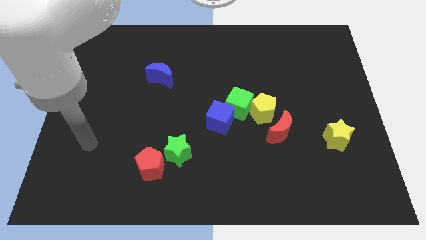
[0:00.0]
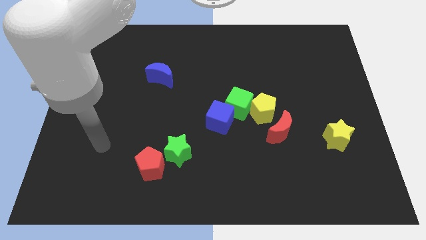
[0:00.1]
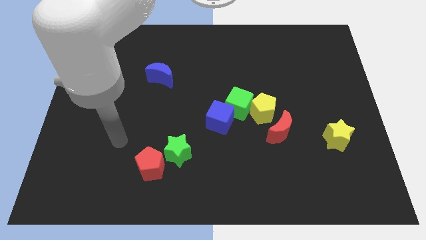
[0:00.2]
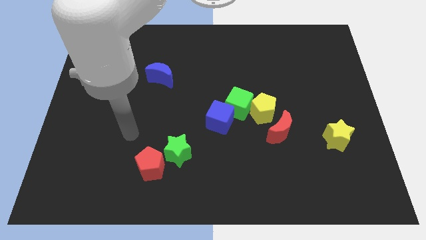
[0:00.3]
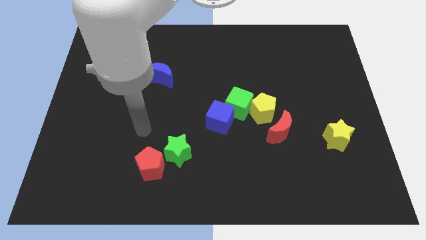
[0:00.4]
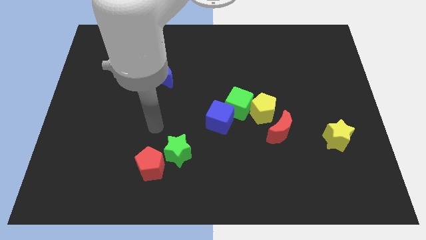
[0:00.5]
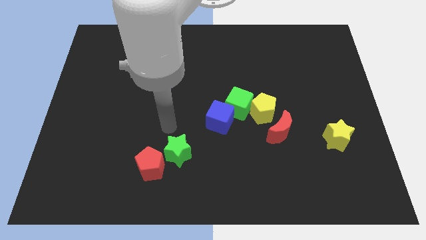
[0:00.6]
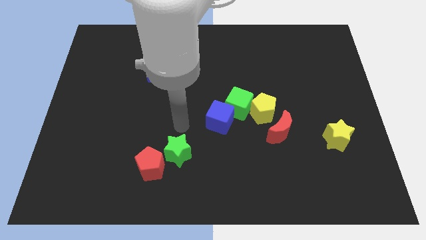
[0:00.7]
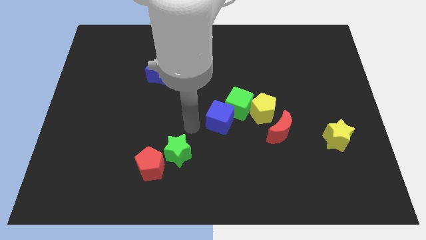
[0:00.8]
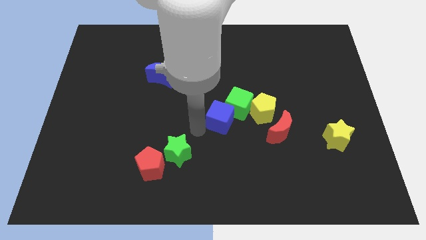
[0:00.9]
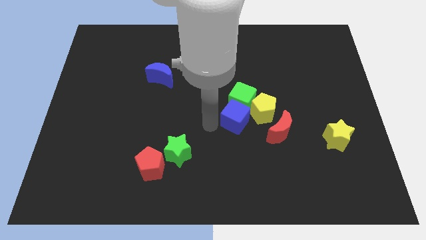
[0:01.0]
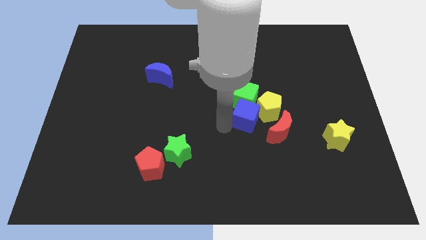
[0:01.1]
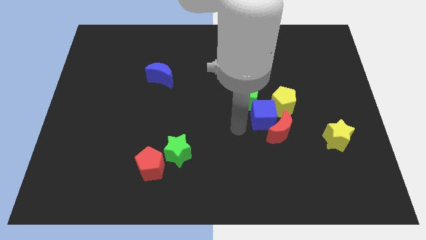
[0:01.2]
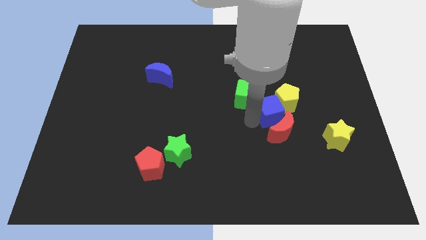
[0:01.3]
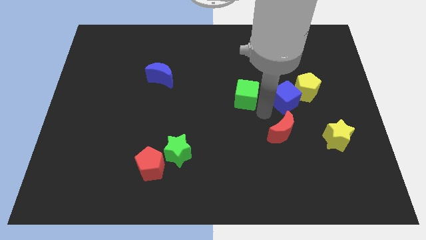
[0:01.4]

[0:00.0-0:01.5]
separate the green cube from the yellow pentagon and blue cube

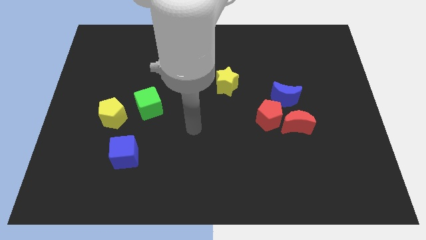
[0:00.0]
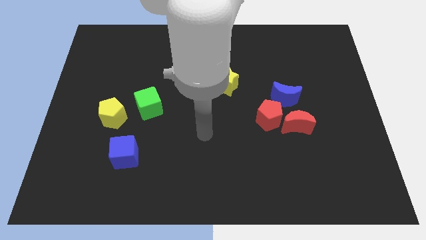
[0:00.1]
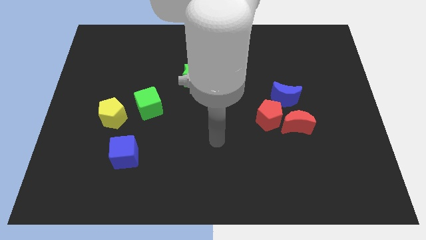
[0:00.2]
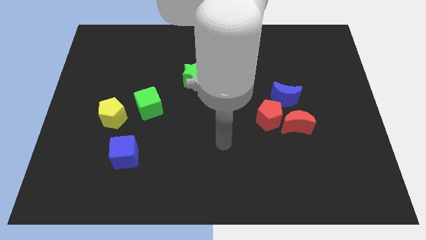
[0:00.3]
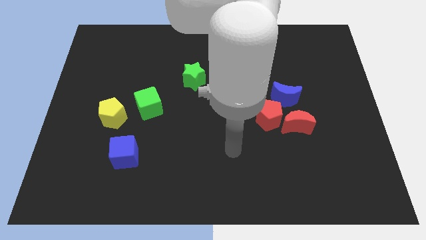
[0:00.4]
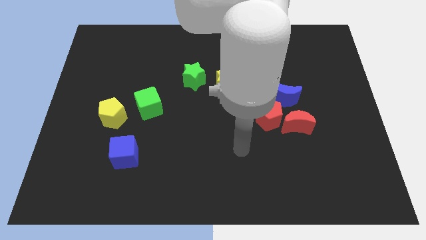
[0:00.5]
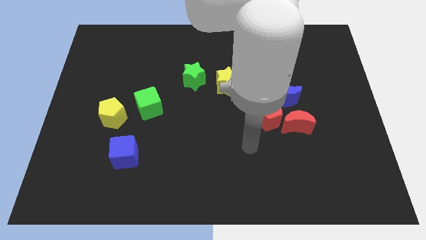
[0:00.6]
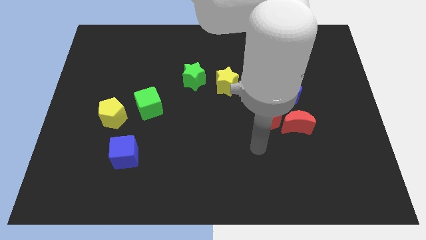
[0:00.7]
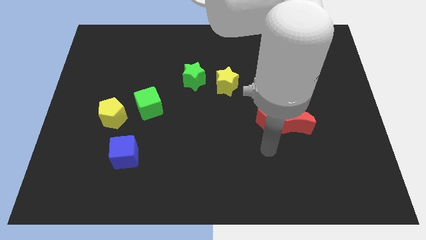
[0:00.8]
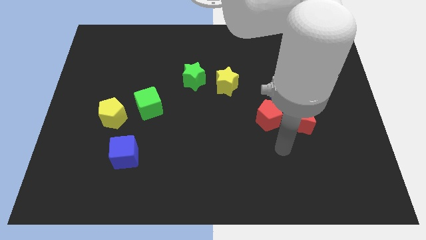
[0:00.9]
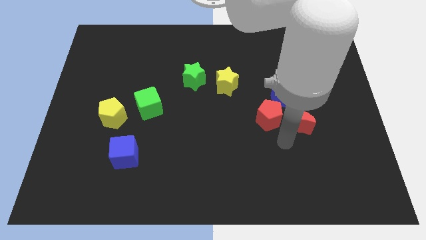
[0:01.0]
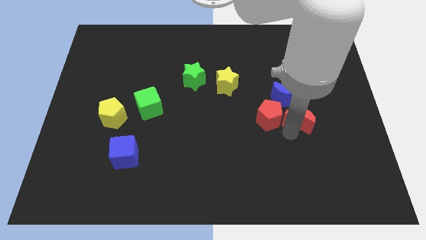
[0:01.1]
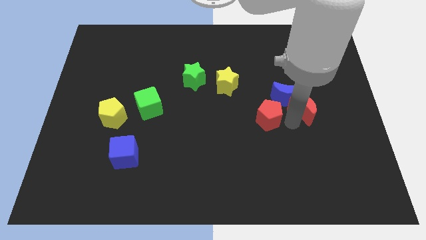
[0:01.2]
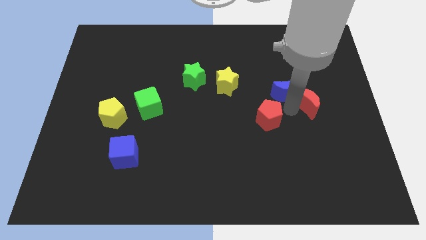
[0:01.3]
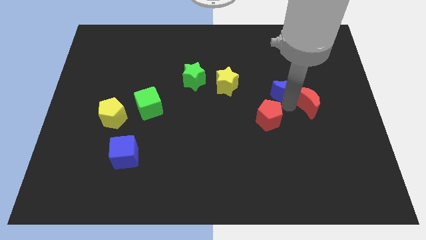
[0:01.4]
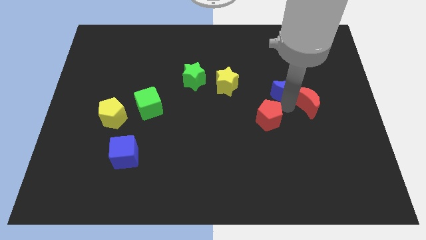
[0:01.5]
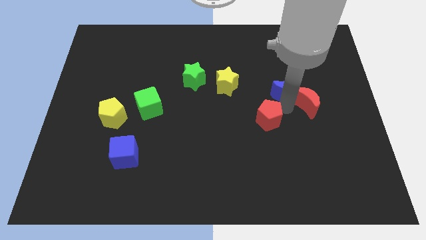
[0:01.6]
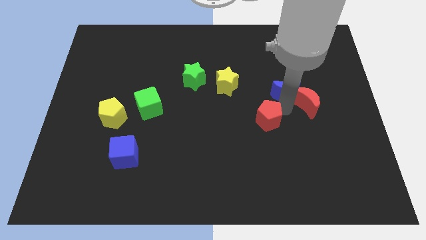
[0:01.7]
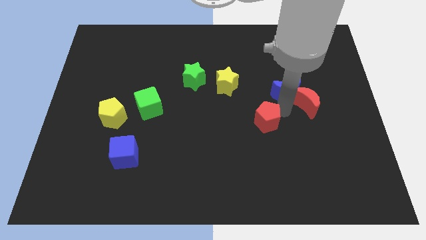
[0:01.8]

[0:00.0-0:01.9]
move the red pentagon away from the red moon and blue moon

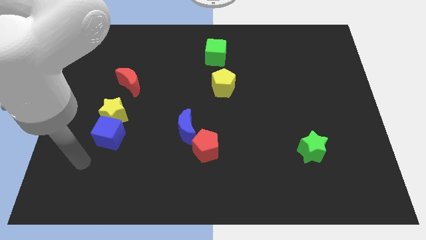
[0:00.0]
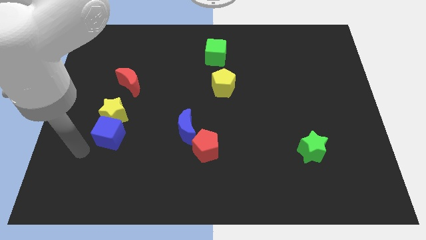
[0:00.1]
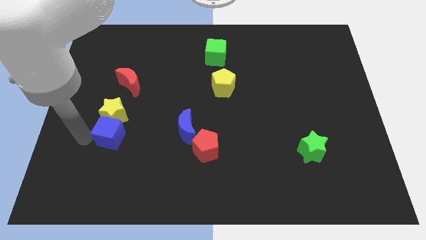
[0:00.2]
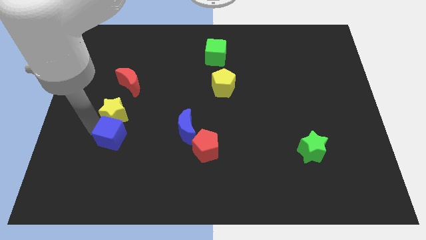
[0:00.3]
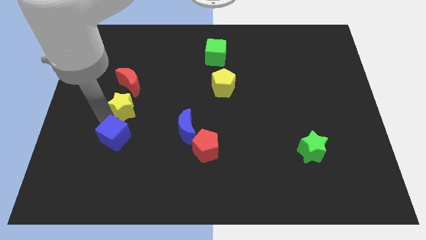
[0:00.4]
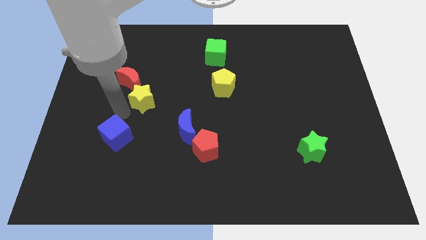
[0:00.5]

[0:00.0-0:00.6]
move the blue cube away from the yellow star

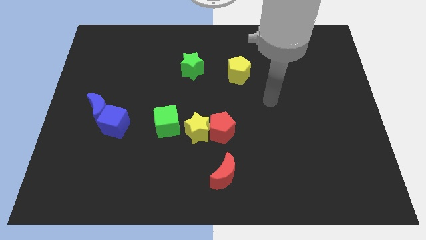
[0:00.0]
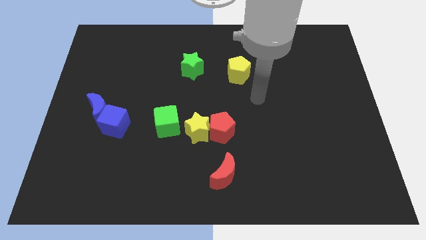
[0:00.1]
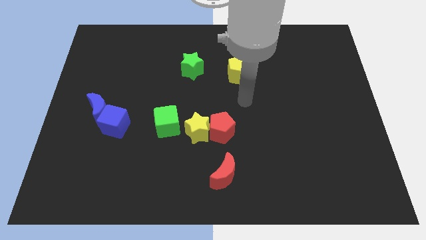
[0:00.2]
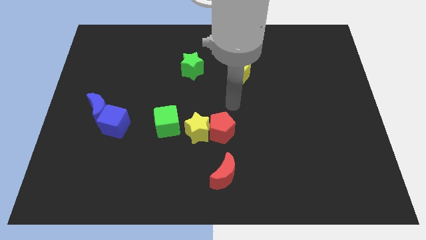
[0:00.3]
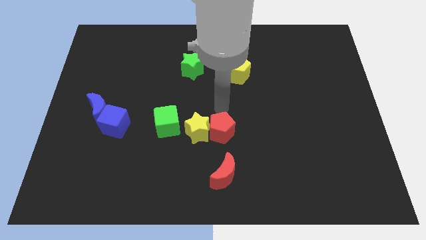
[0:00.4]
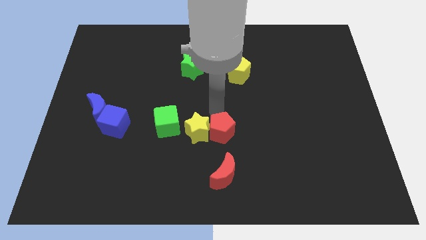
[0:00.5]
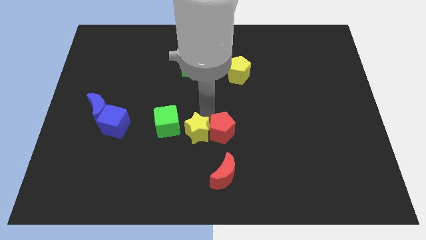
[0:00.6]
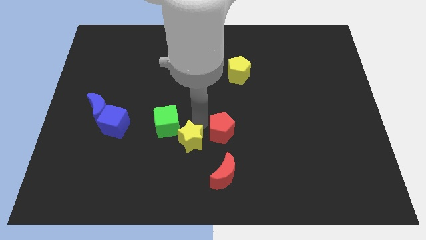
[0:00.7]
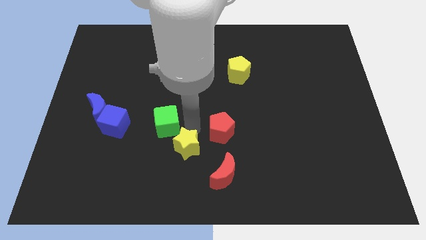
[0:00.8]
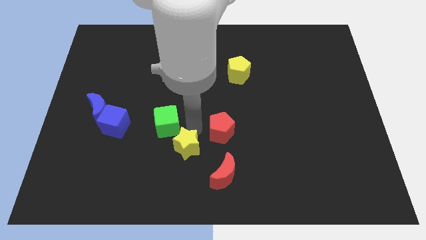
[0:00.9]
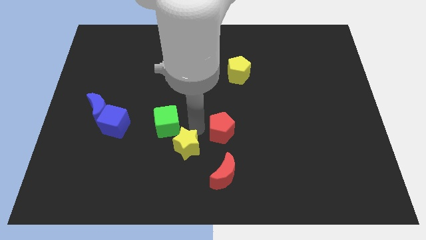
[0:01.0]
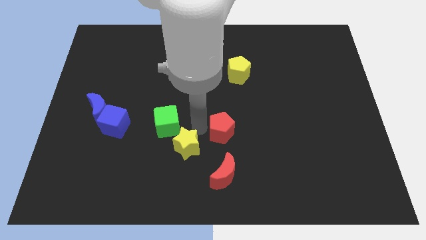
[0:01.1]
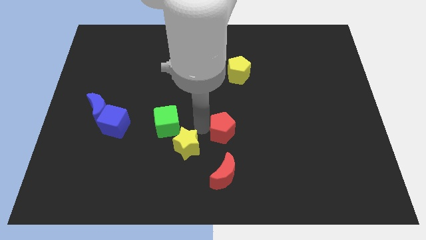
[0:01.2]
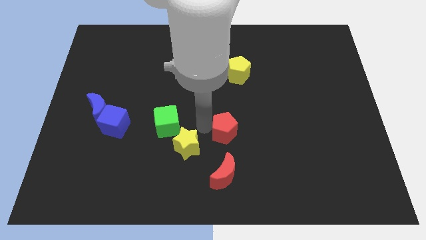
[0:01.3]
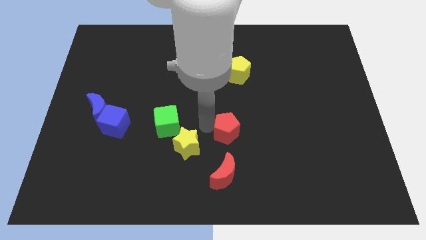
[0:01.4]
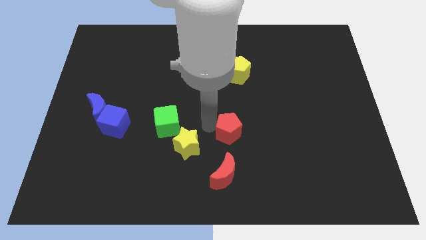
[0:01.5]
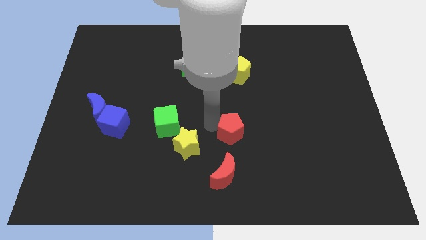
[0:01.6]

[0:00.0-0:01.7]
pull the red pentagon apart from the yellow star

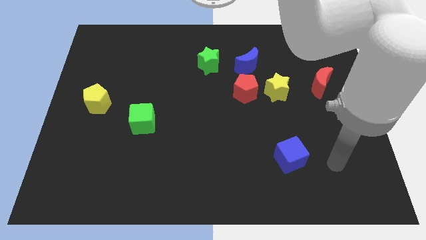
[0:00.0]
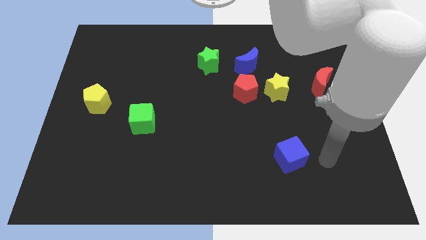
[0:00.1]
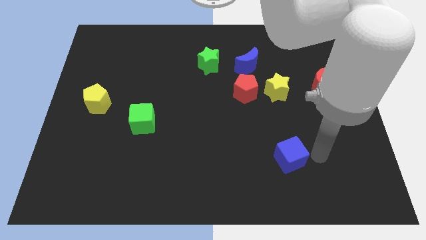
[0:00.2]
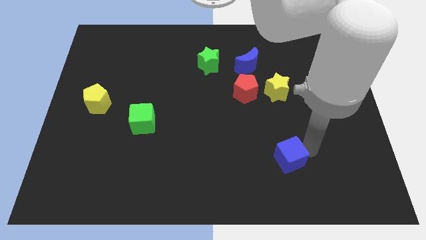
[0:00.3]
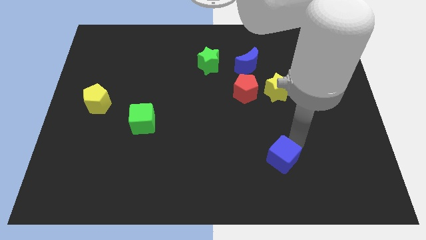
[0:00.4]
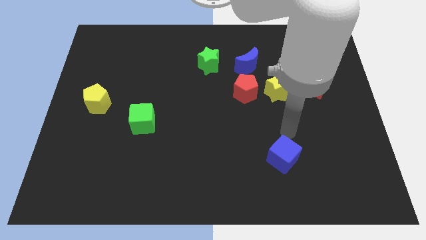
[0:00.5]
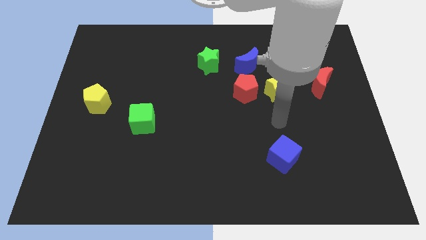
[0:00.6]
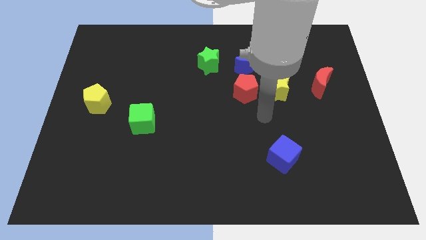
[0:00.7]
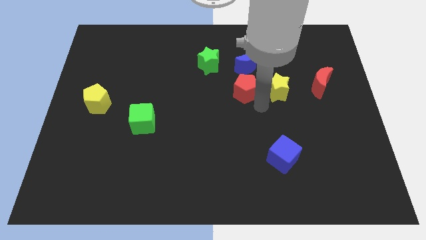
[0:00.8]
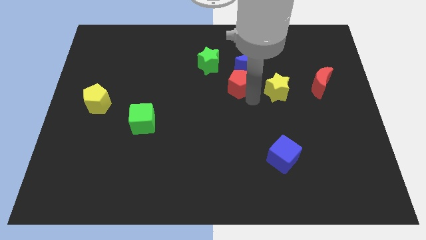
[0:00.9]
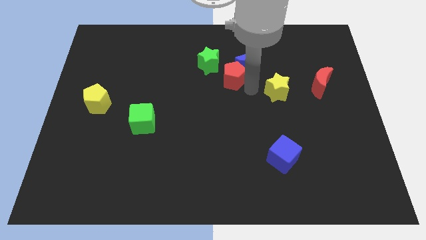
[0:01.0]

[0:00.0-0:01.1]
move the yellow star away from the red pentagon

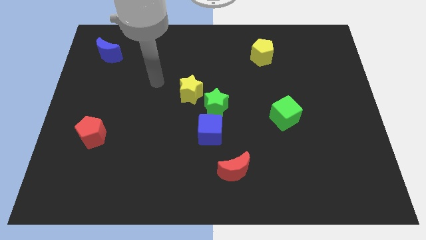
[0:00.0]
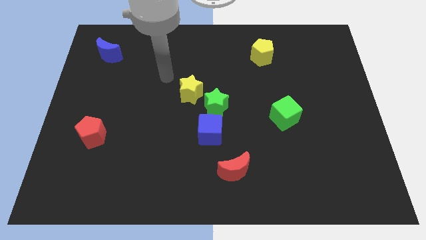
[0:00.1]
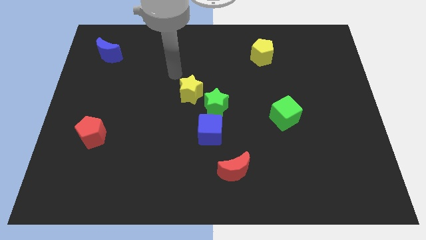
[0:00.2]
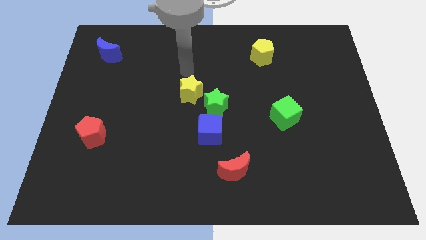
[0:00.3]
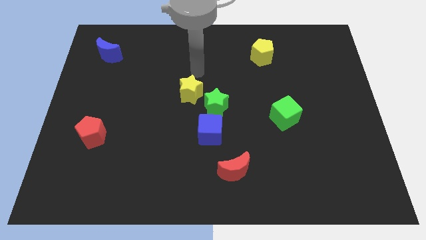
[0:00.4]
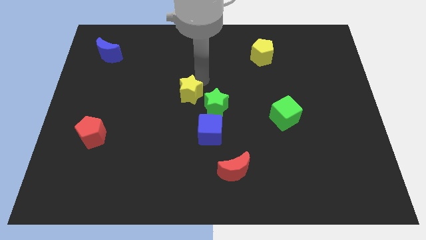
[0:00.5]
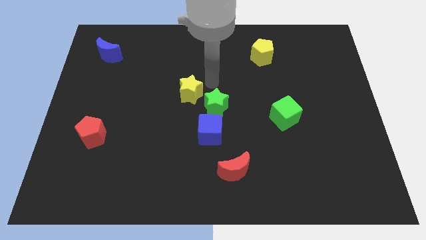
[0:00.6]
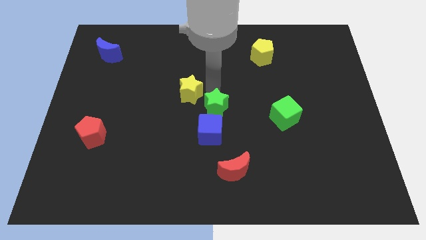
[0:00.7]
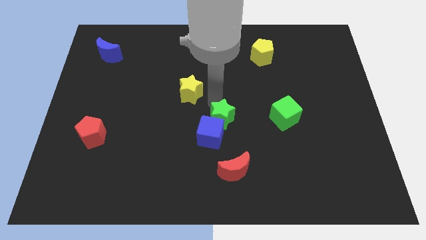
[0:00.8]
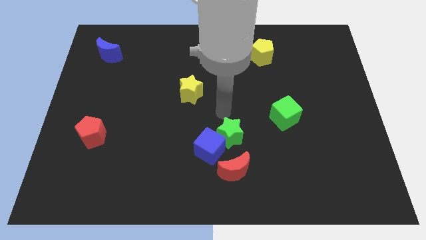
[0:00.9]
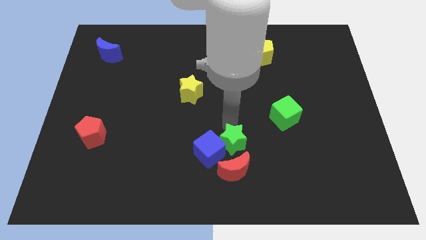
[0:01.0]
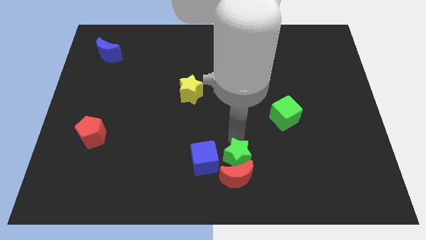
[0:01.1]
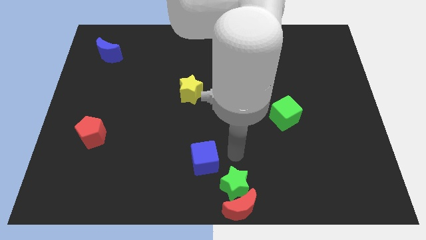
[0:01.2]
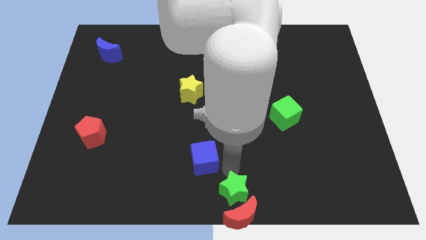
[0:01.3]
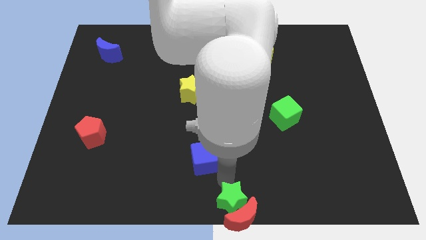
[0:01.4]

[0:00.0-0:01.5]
move the blue cube away from the green star

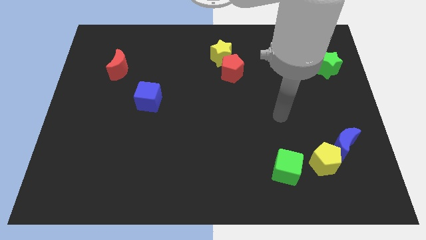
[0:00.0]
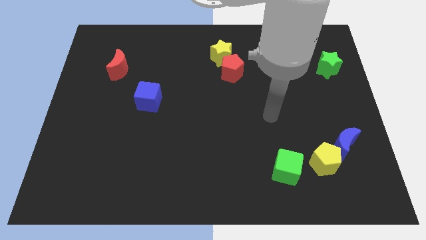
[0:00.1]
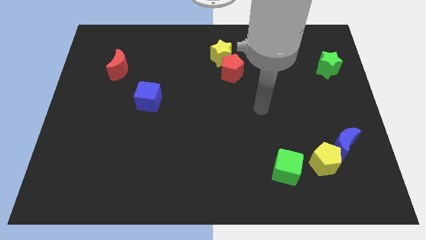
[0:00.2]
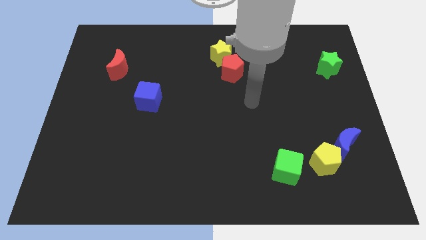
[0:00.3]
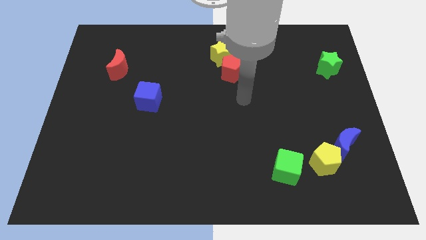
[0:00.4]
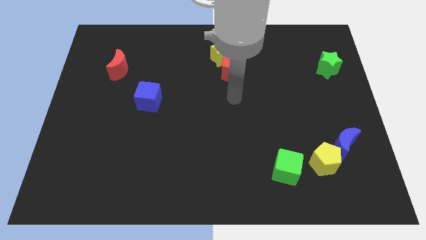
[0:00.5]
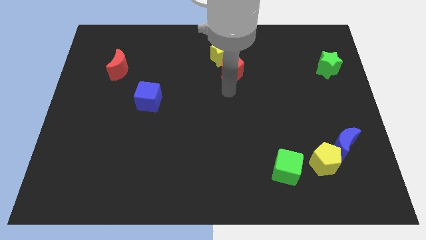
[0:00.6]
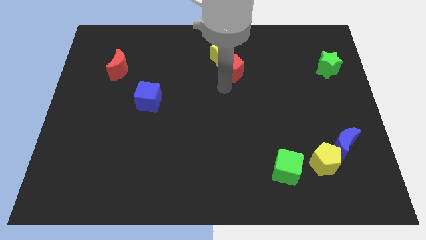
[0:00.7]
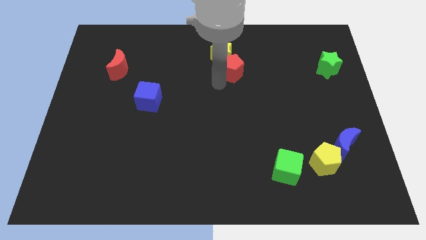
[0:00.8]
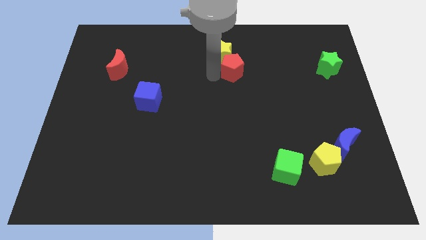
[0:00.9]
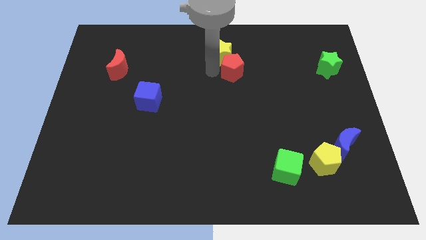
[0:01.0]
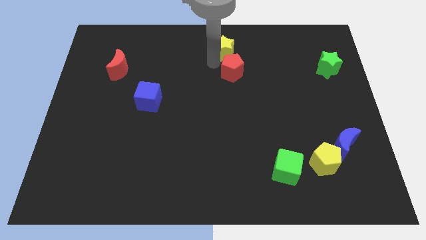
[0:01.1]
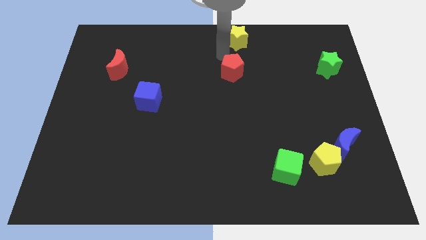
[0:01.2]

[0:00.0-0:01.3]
separate the red pentagon from the yellow star
